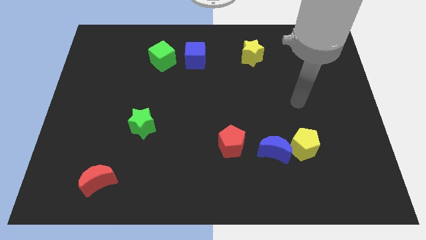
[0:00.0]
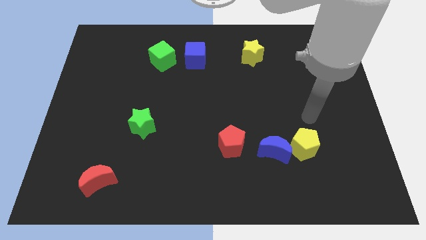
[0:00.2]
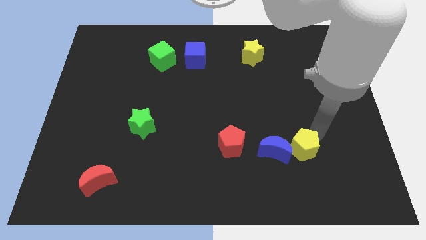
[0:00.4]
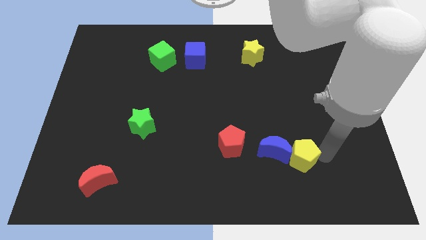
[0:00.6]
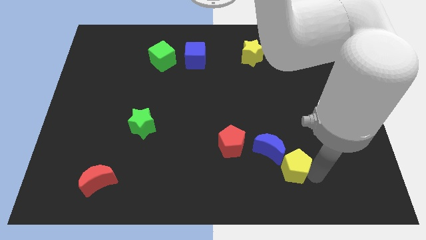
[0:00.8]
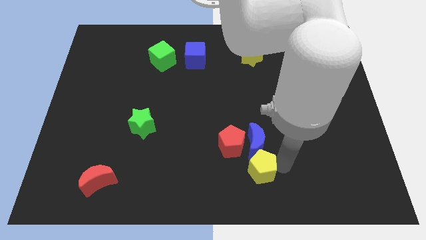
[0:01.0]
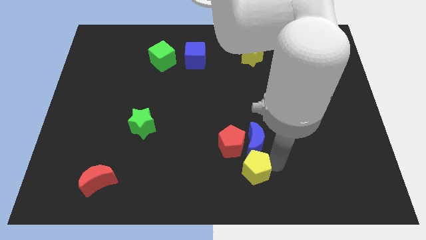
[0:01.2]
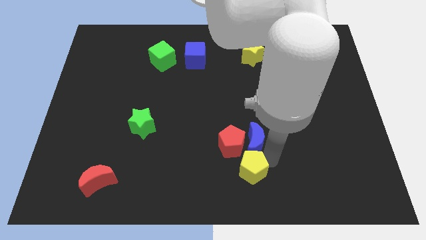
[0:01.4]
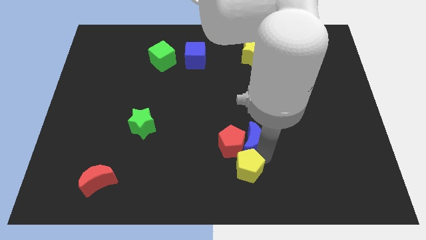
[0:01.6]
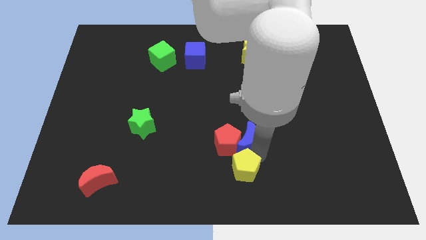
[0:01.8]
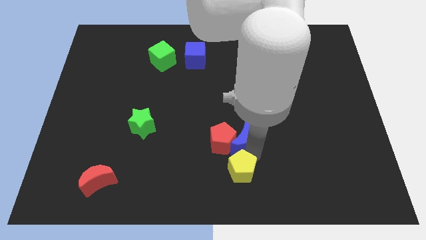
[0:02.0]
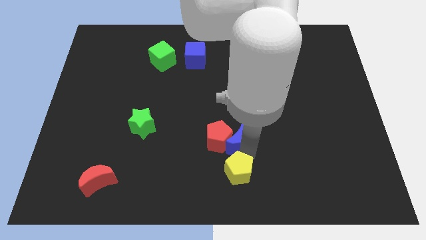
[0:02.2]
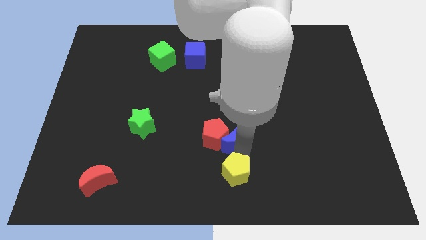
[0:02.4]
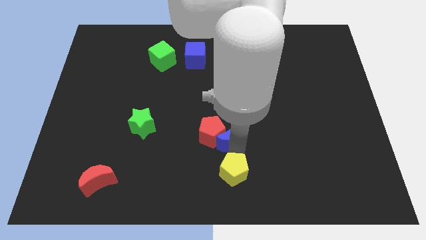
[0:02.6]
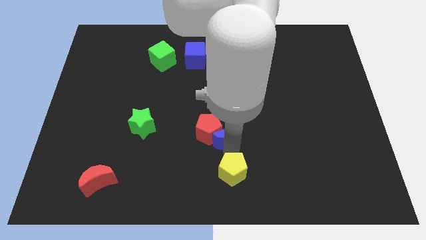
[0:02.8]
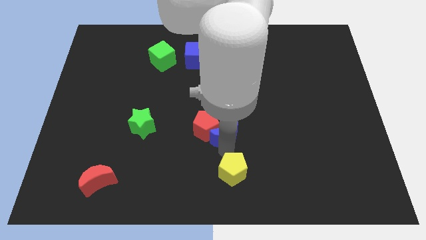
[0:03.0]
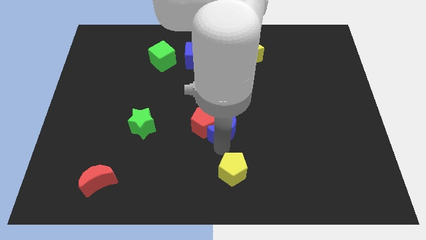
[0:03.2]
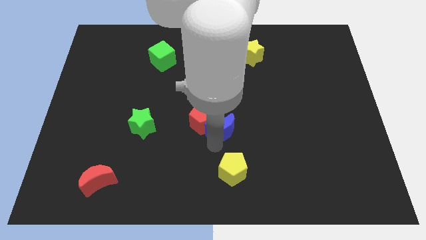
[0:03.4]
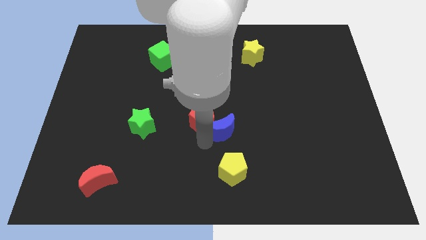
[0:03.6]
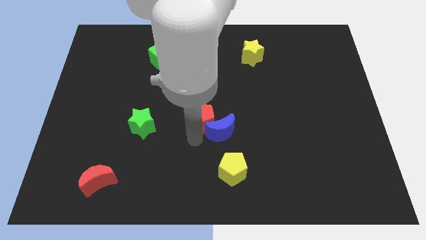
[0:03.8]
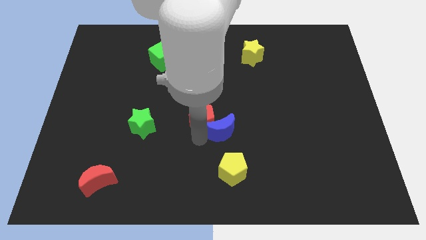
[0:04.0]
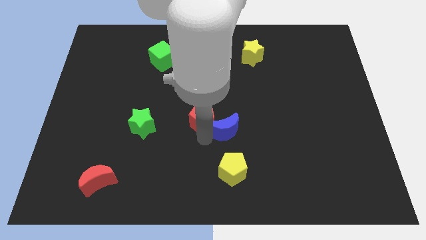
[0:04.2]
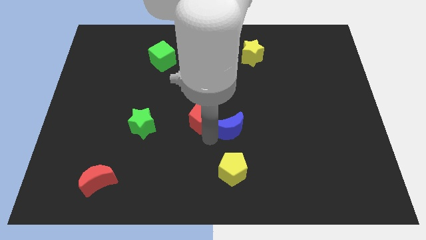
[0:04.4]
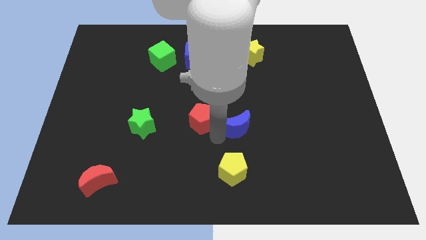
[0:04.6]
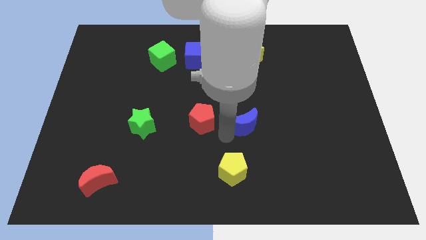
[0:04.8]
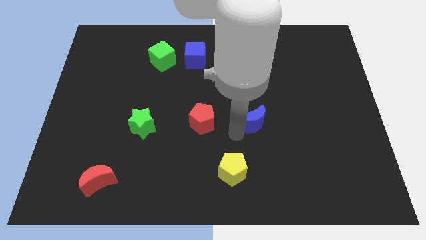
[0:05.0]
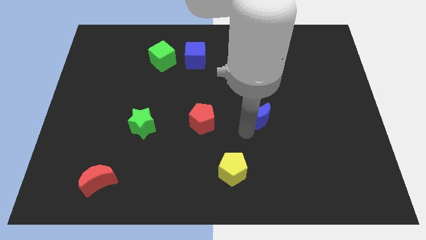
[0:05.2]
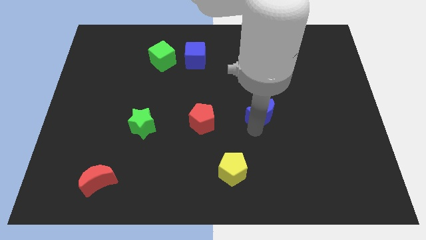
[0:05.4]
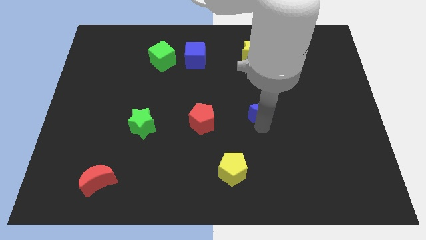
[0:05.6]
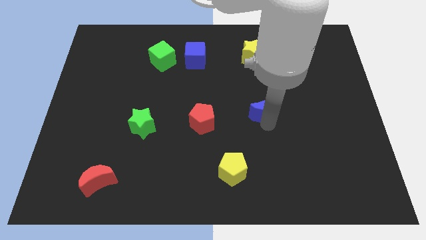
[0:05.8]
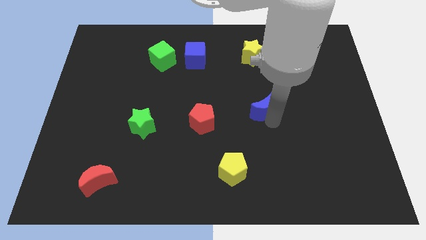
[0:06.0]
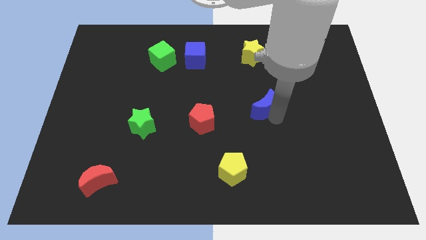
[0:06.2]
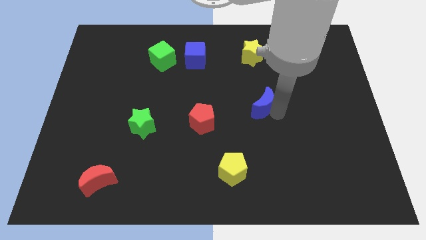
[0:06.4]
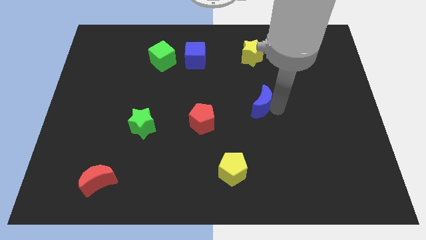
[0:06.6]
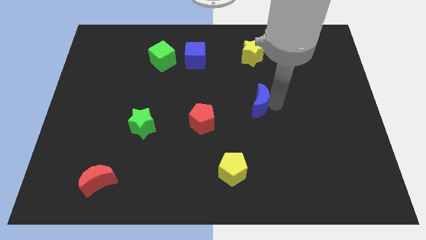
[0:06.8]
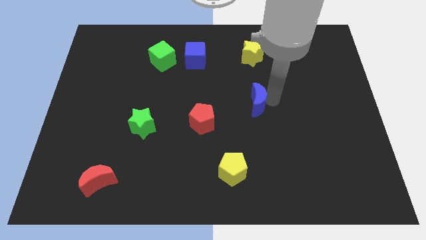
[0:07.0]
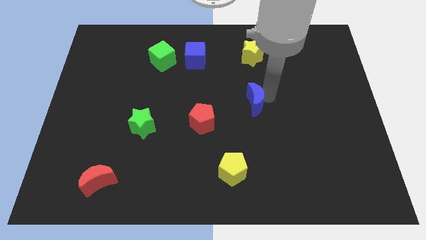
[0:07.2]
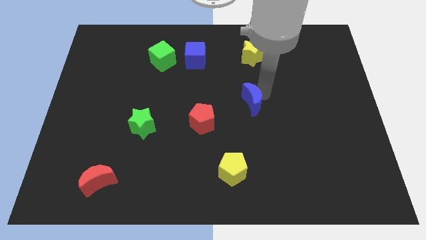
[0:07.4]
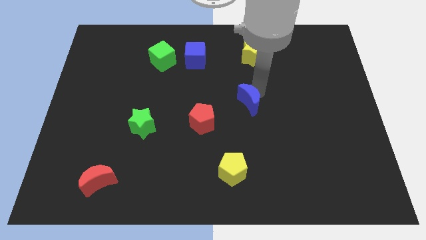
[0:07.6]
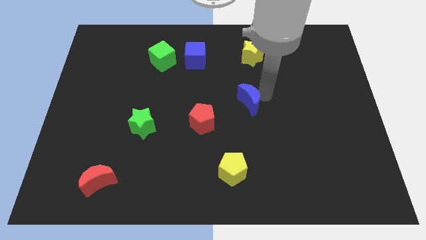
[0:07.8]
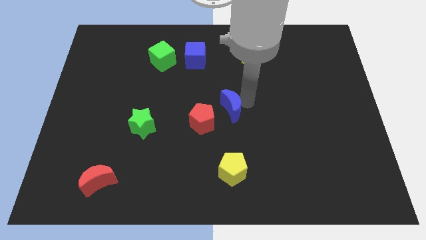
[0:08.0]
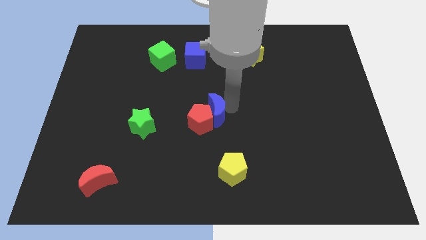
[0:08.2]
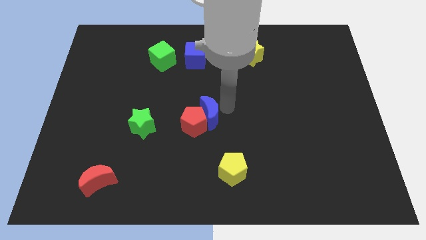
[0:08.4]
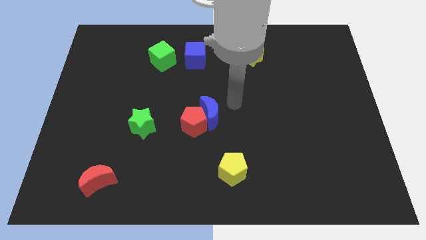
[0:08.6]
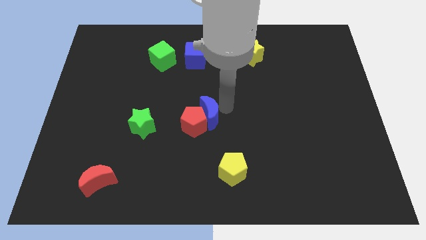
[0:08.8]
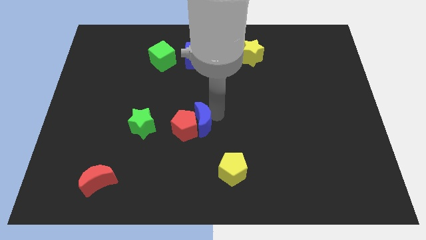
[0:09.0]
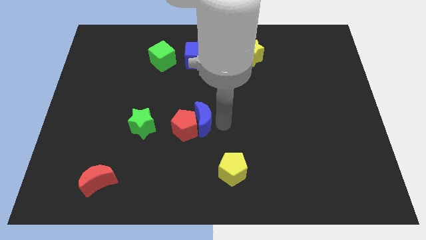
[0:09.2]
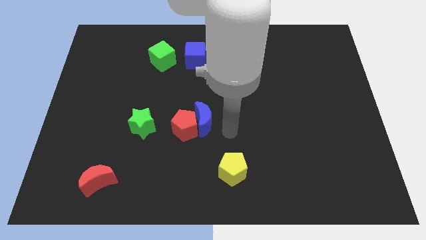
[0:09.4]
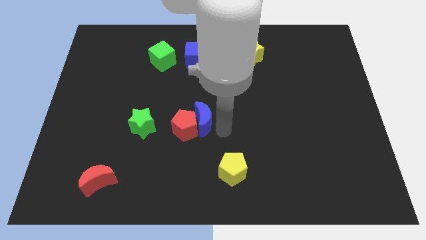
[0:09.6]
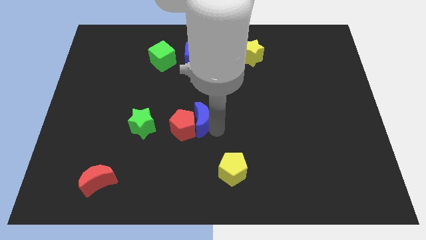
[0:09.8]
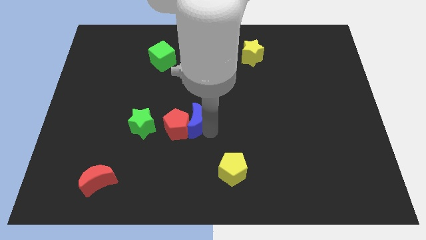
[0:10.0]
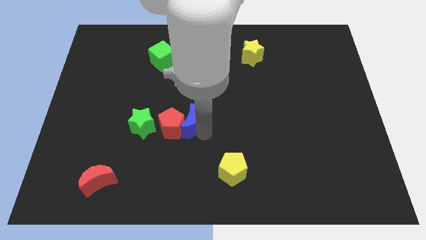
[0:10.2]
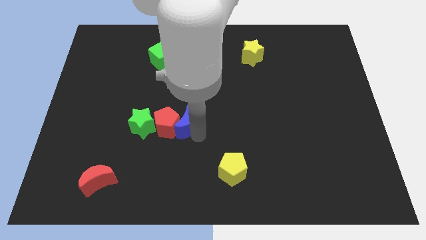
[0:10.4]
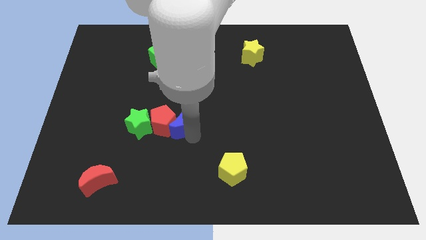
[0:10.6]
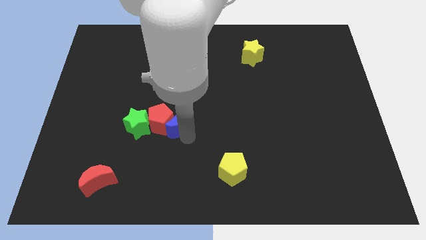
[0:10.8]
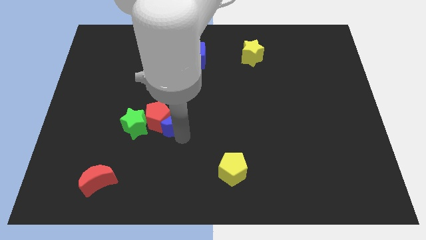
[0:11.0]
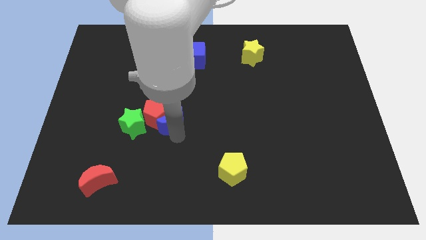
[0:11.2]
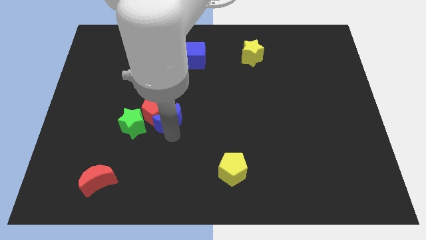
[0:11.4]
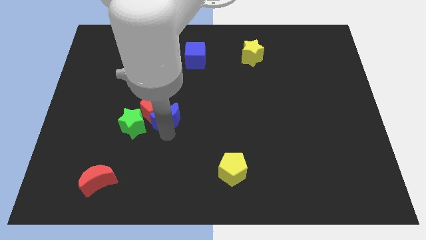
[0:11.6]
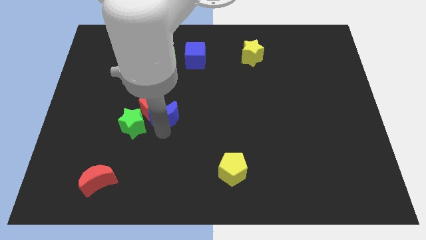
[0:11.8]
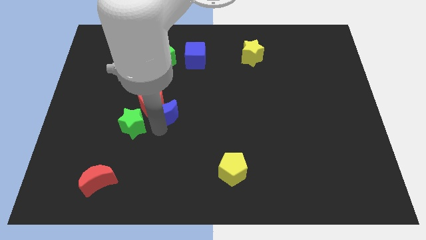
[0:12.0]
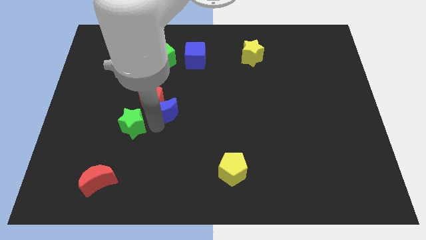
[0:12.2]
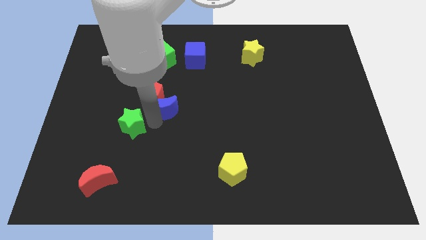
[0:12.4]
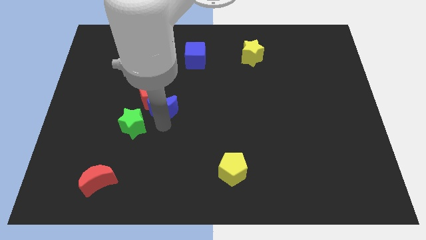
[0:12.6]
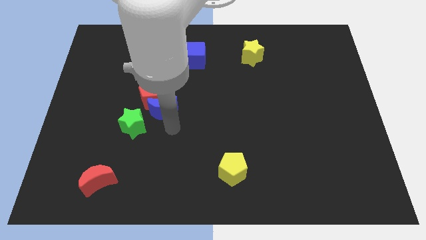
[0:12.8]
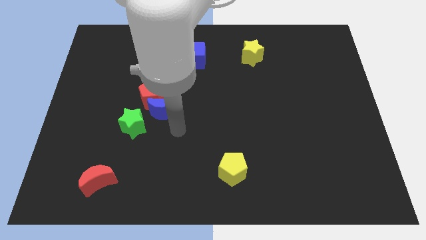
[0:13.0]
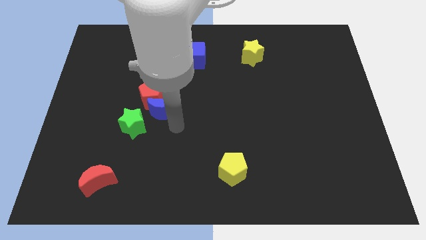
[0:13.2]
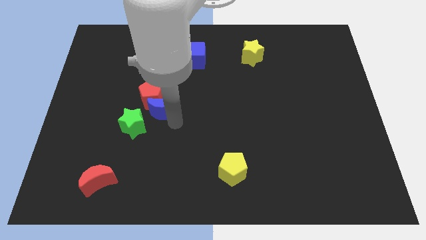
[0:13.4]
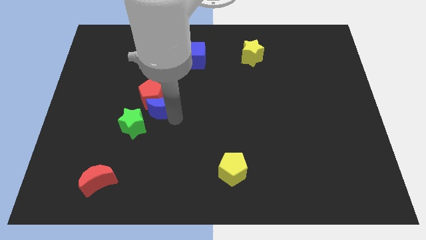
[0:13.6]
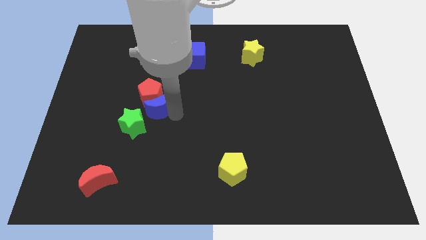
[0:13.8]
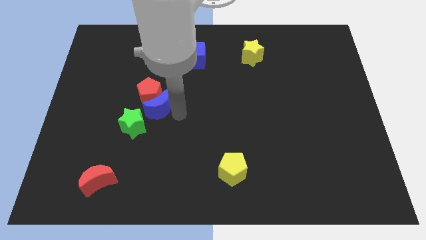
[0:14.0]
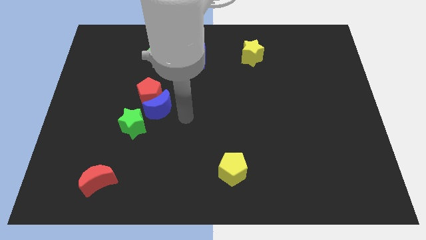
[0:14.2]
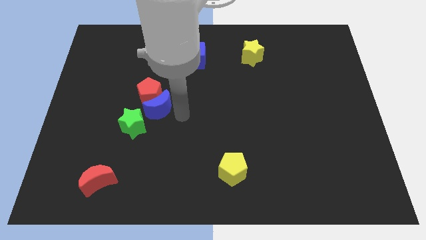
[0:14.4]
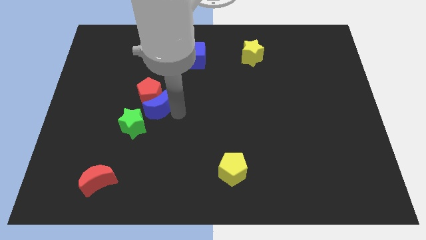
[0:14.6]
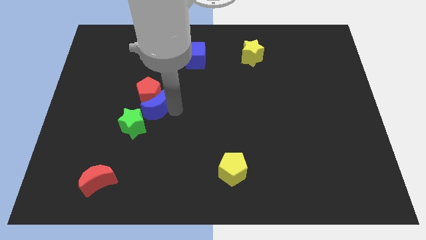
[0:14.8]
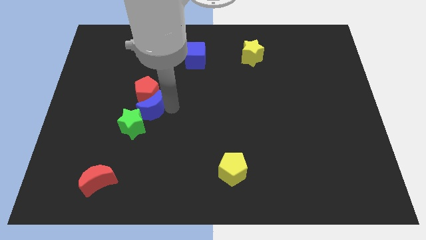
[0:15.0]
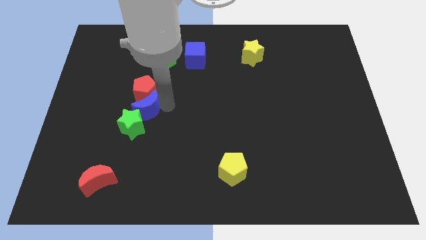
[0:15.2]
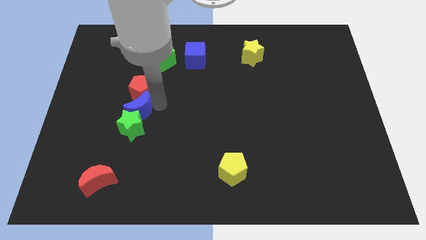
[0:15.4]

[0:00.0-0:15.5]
move the blue moon diagonally up and to the left of the green star
